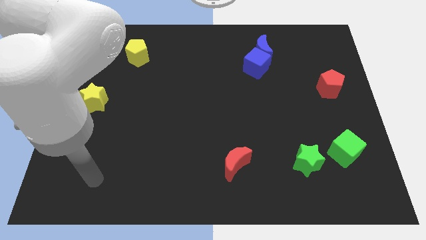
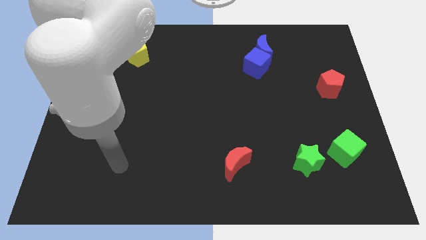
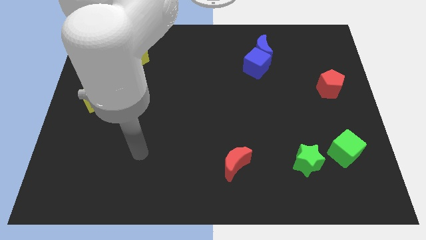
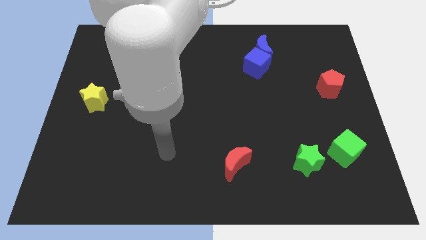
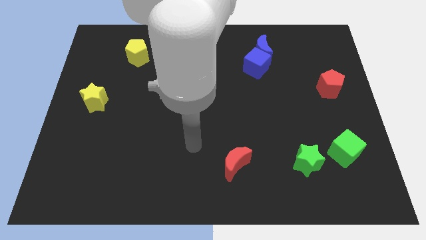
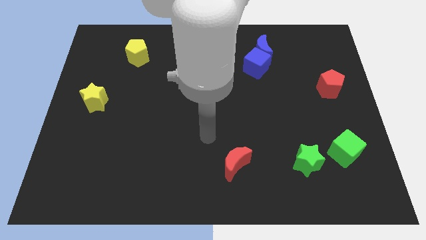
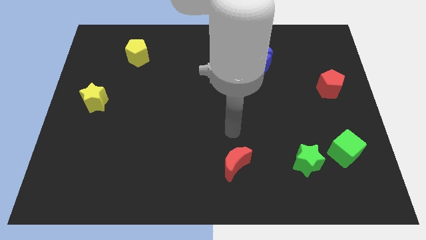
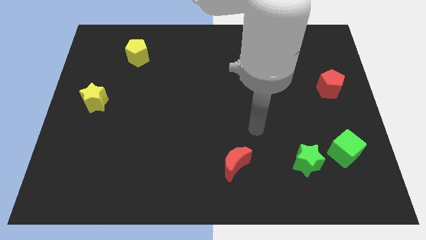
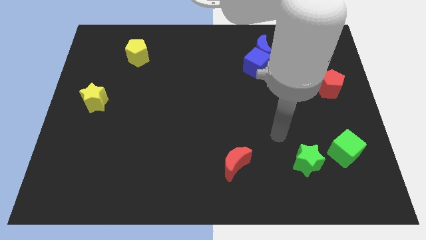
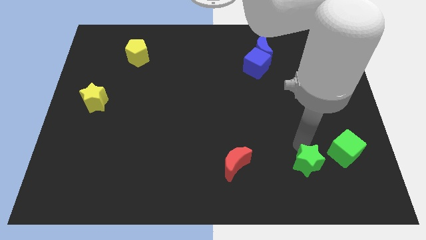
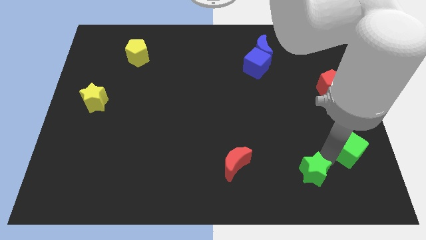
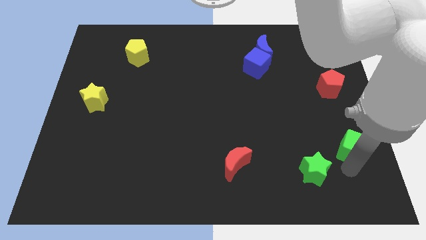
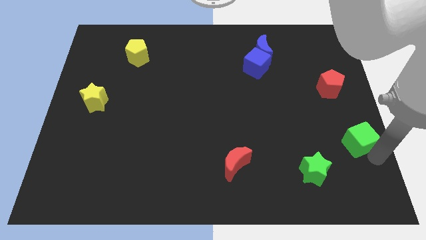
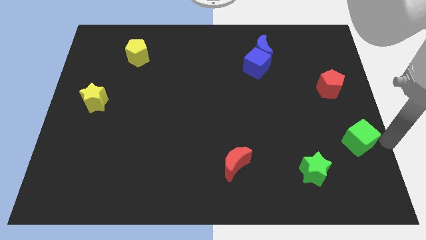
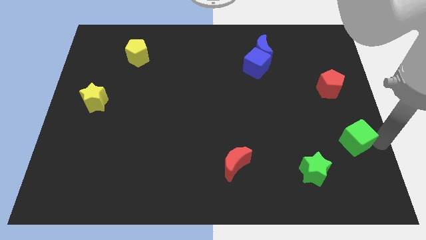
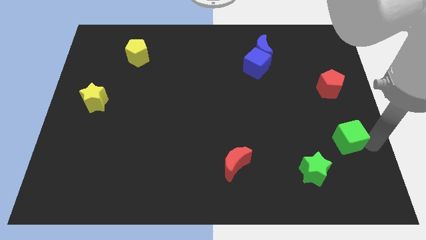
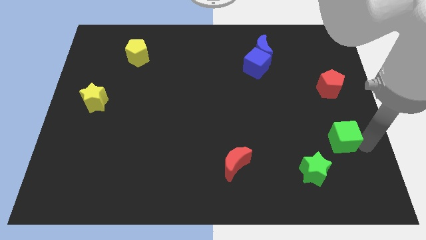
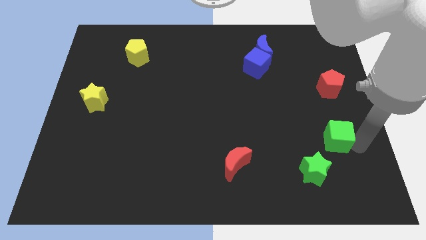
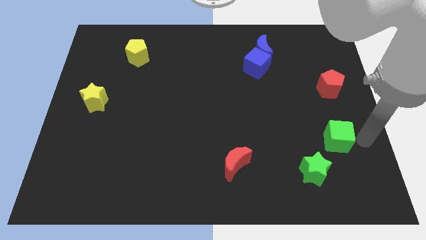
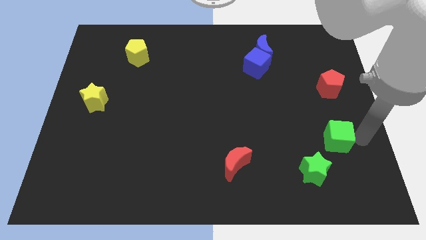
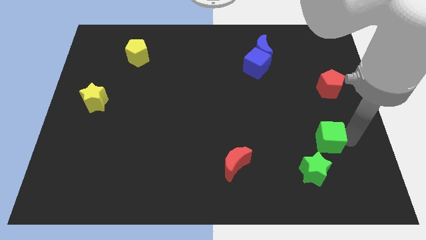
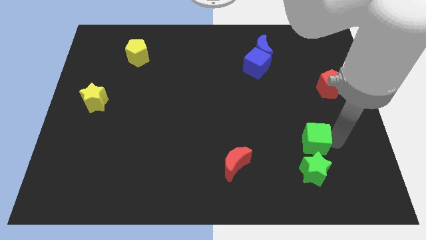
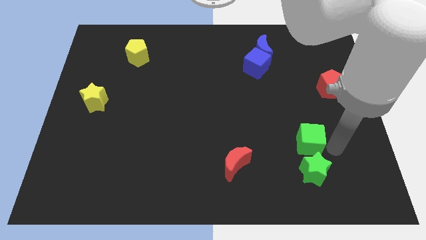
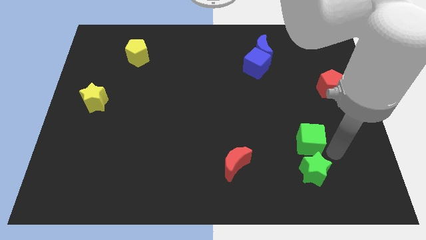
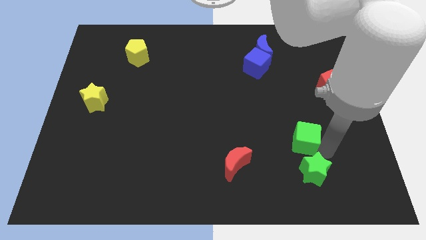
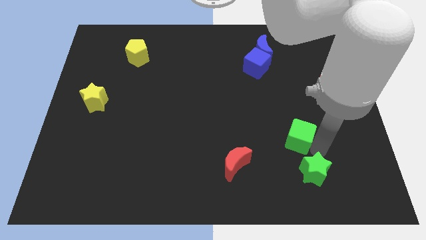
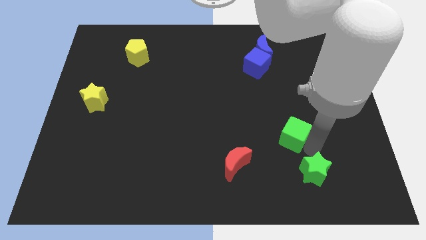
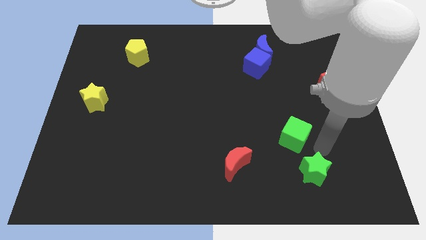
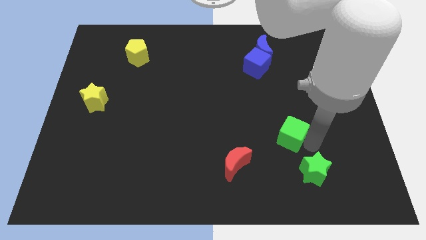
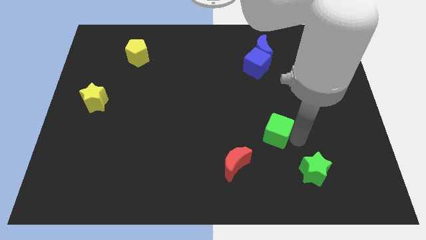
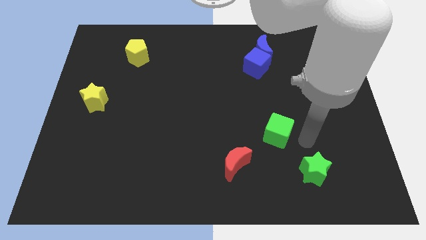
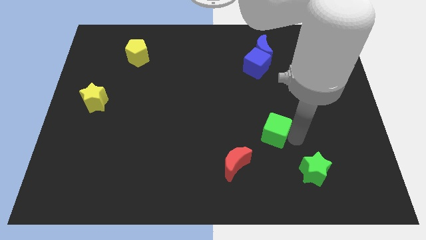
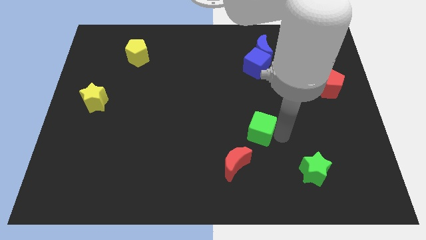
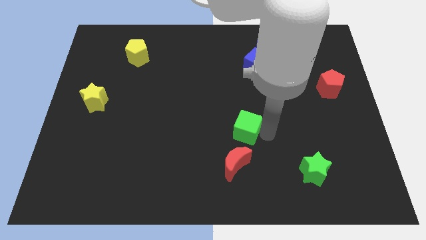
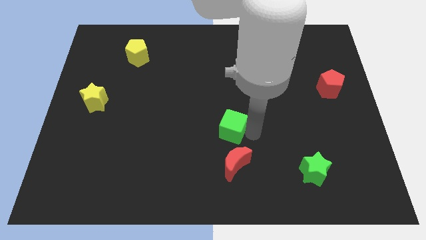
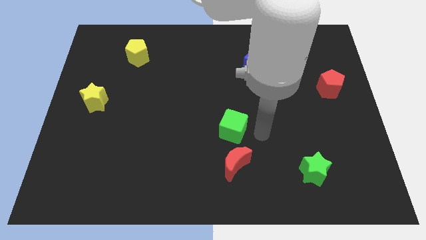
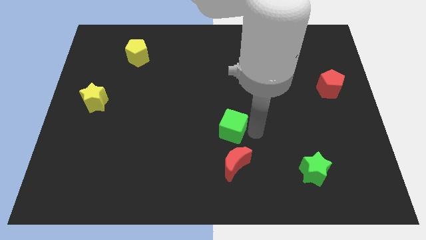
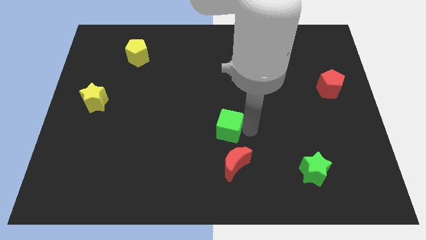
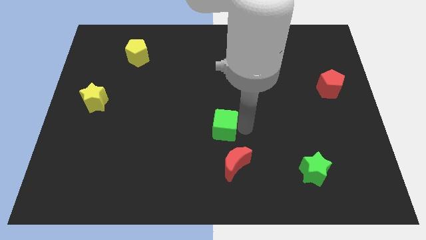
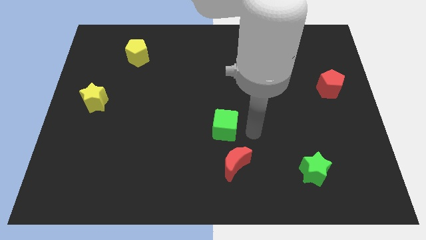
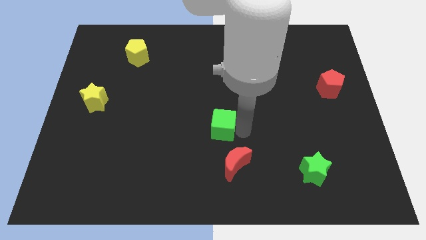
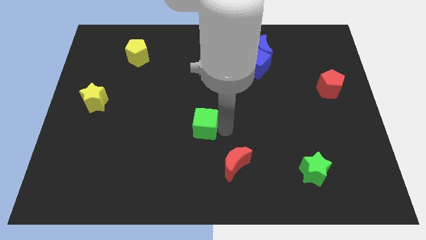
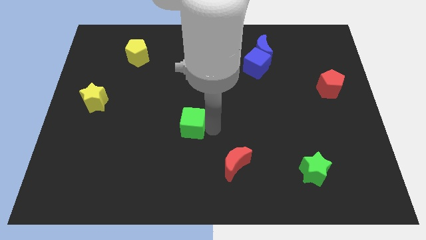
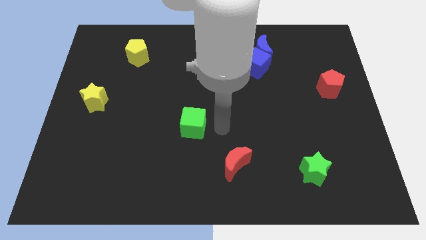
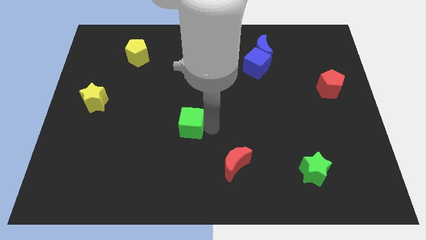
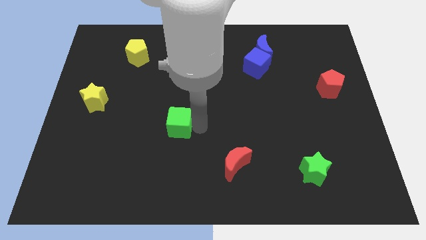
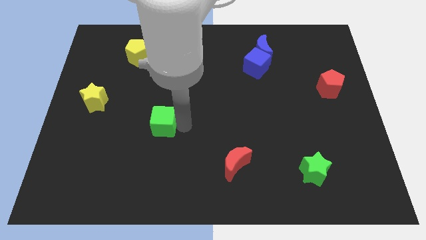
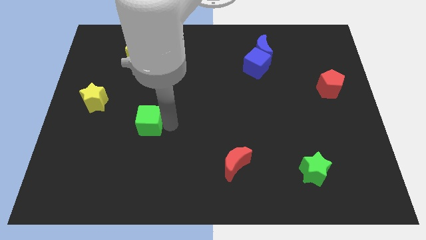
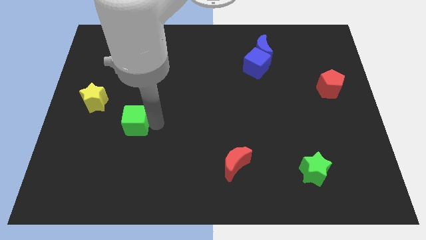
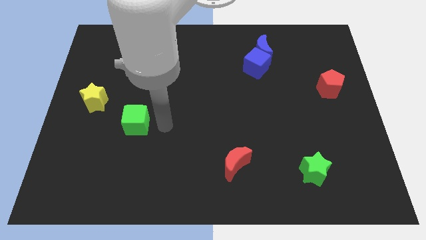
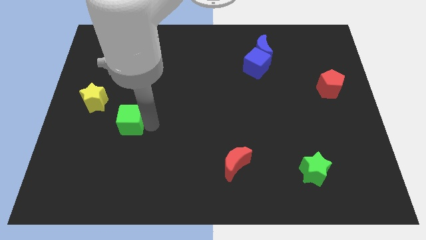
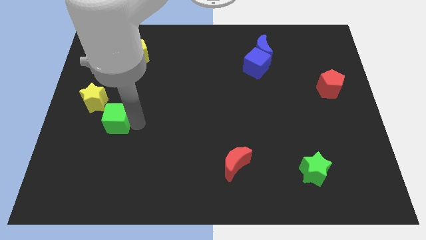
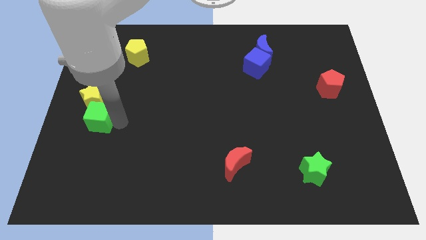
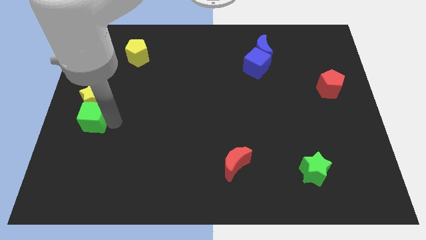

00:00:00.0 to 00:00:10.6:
push the green cube to the center left
